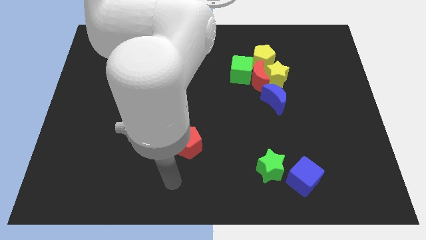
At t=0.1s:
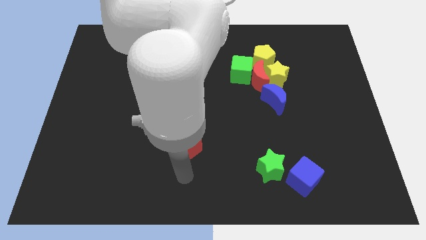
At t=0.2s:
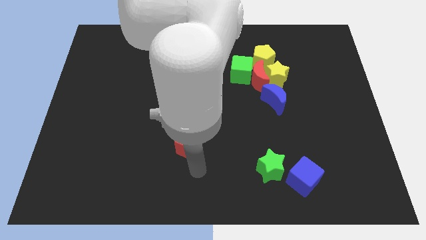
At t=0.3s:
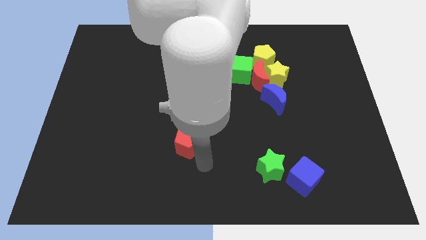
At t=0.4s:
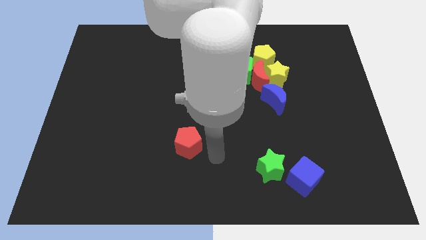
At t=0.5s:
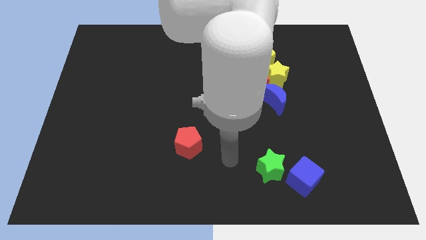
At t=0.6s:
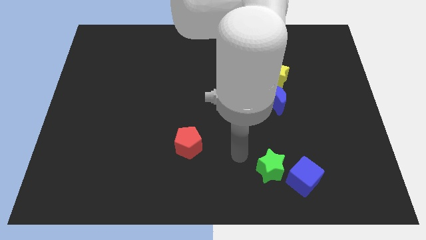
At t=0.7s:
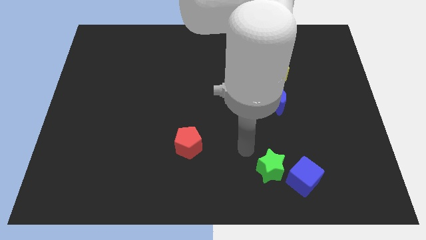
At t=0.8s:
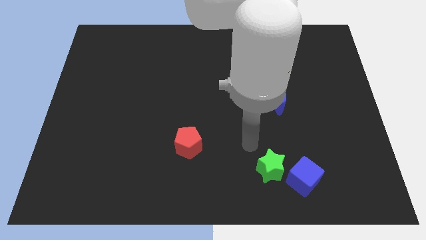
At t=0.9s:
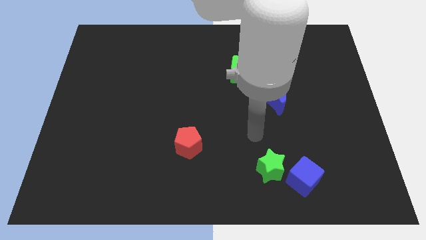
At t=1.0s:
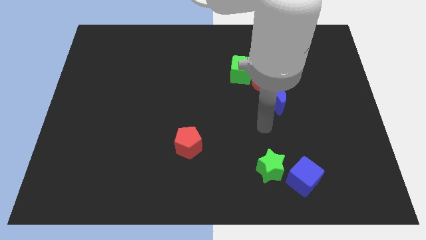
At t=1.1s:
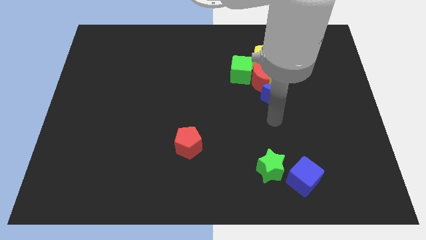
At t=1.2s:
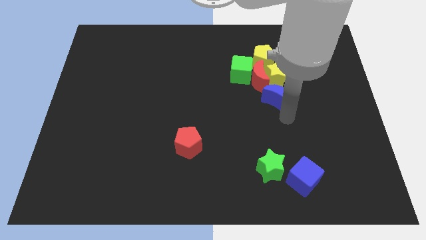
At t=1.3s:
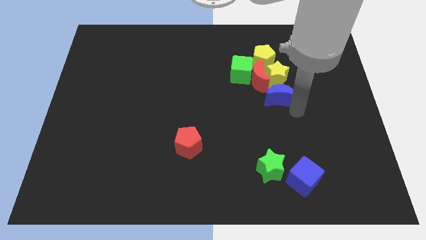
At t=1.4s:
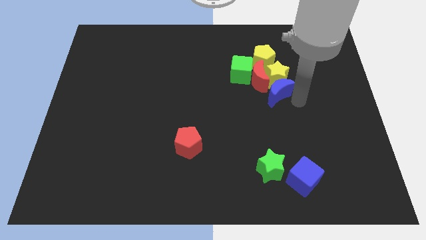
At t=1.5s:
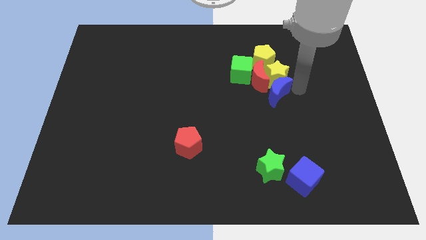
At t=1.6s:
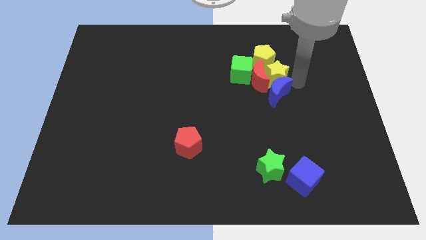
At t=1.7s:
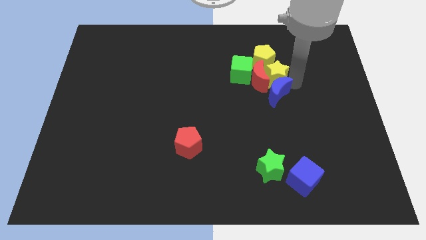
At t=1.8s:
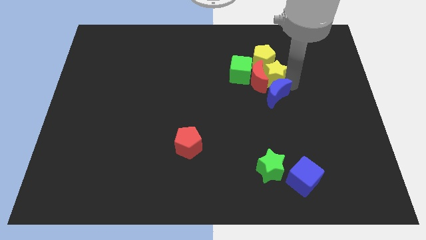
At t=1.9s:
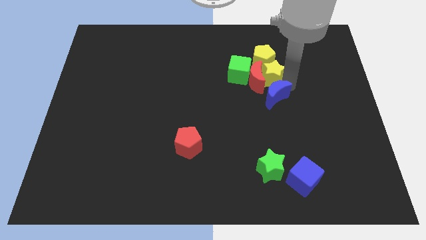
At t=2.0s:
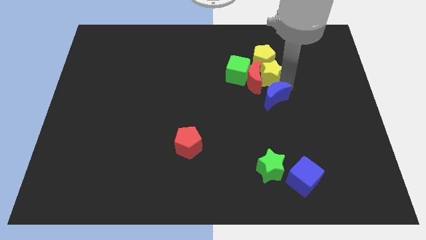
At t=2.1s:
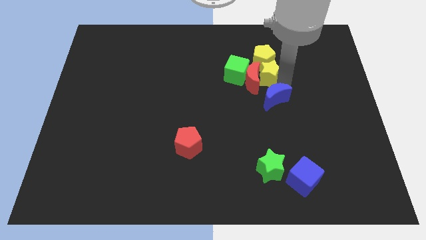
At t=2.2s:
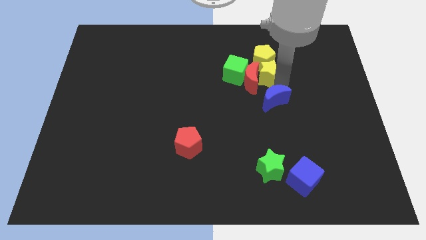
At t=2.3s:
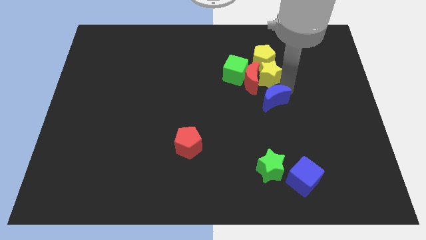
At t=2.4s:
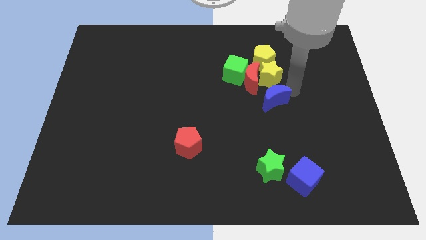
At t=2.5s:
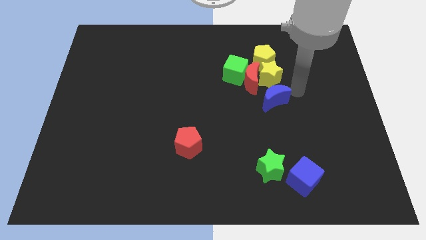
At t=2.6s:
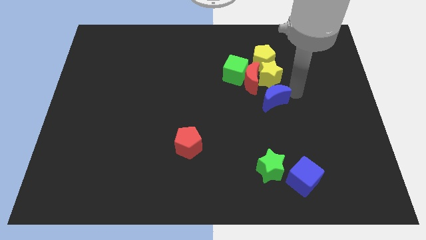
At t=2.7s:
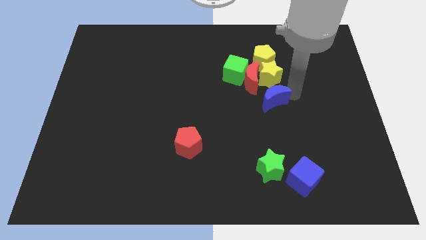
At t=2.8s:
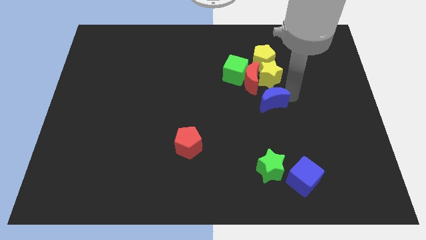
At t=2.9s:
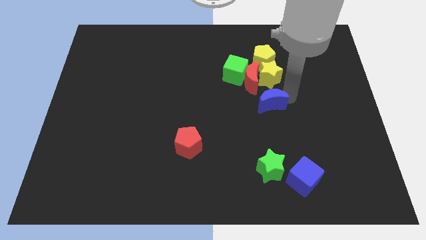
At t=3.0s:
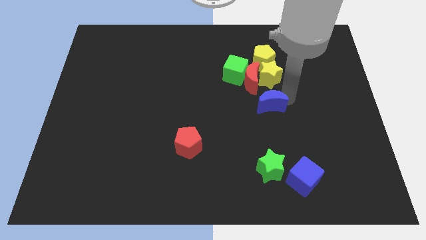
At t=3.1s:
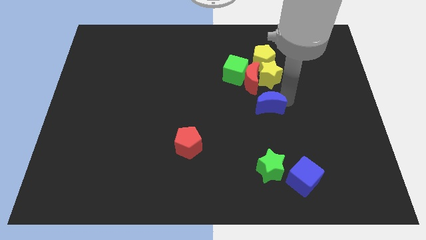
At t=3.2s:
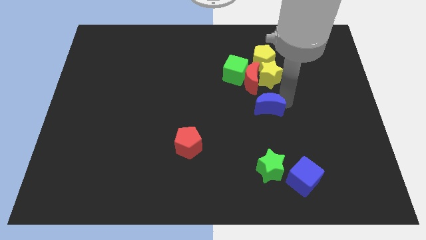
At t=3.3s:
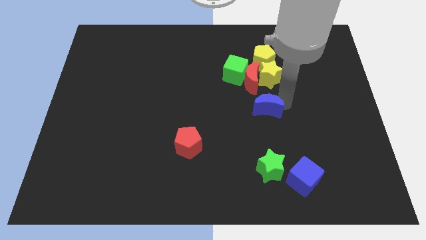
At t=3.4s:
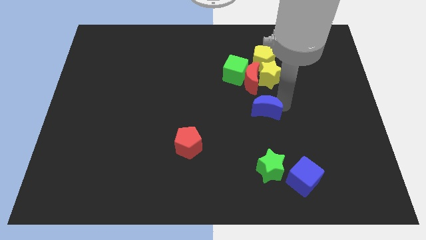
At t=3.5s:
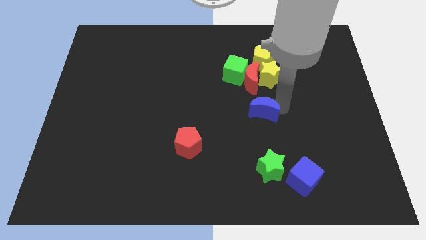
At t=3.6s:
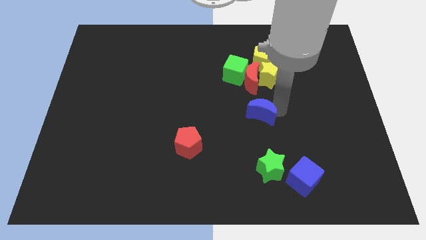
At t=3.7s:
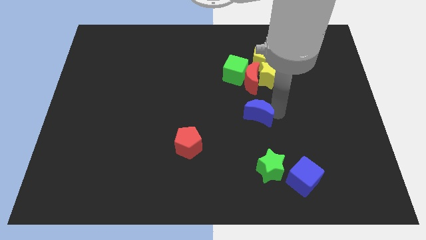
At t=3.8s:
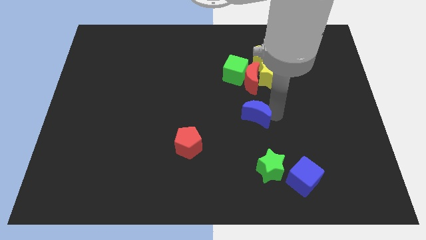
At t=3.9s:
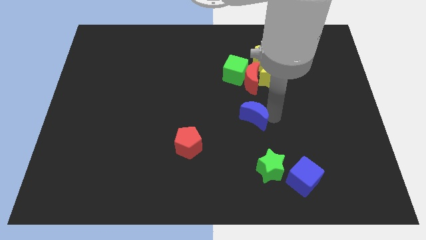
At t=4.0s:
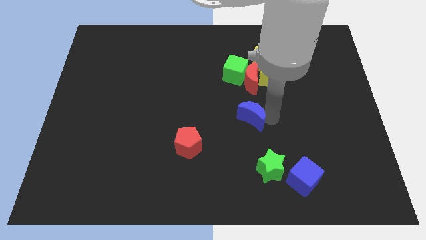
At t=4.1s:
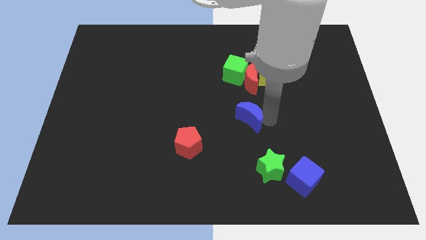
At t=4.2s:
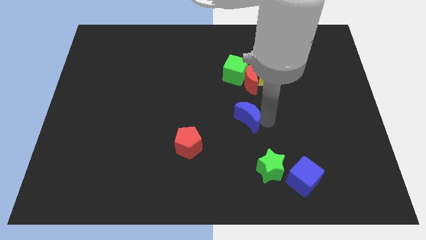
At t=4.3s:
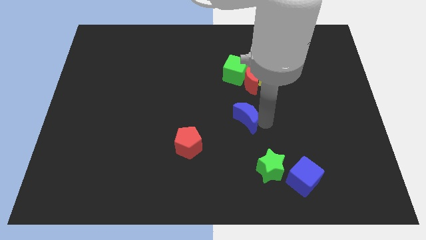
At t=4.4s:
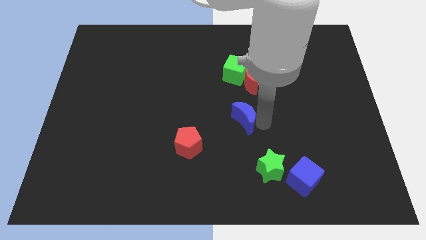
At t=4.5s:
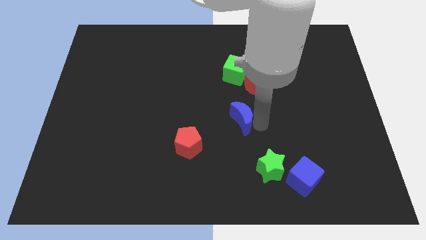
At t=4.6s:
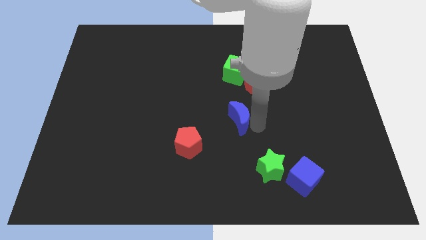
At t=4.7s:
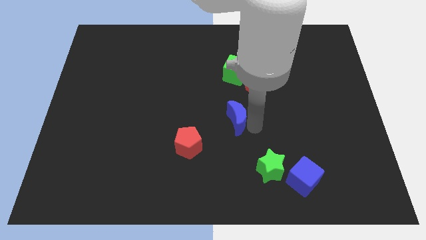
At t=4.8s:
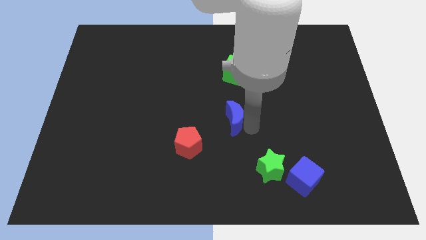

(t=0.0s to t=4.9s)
slide the blue moon to the top right side of the red pentagon

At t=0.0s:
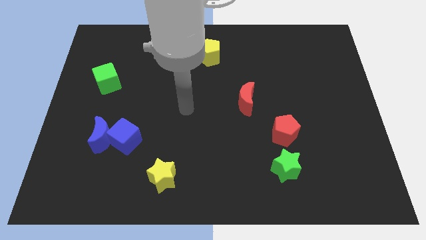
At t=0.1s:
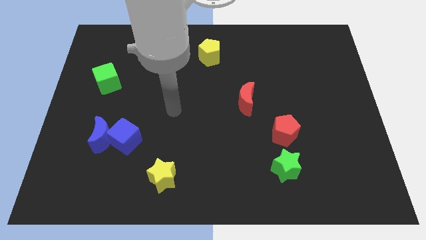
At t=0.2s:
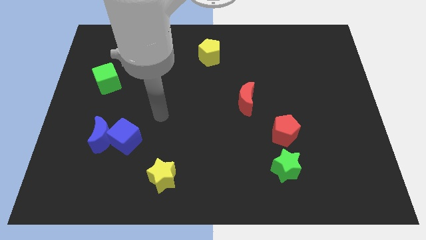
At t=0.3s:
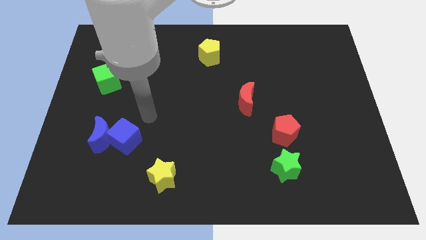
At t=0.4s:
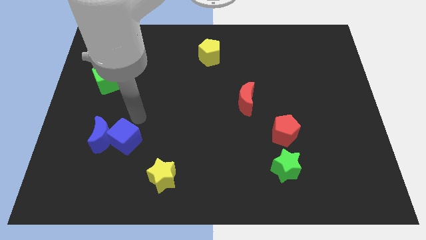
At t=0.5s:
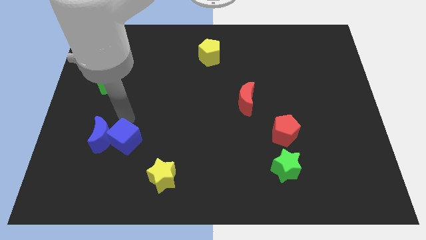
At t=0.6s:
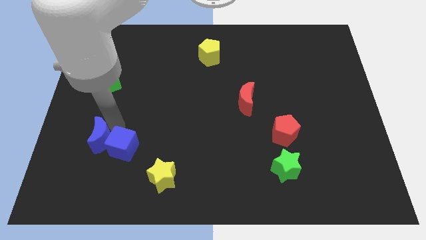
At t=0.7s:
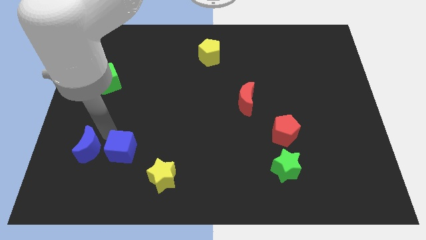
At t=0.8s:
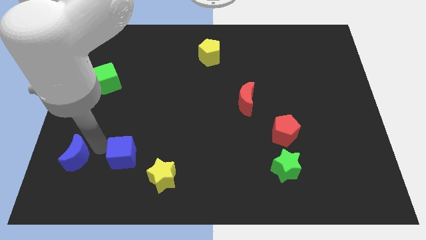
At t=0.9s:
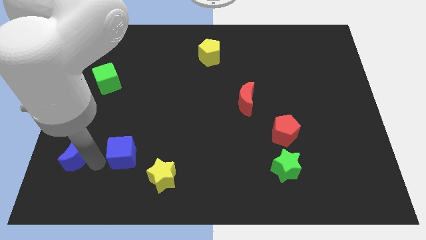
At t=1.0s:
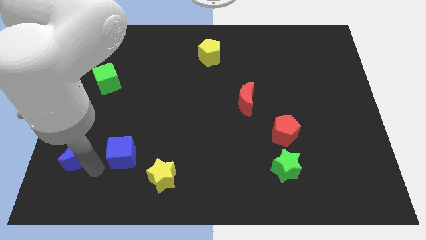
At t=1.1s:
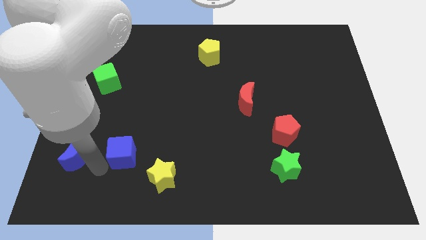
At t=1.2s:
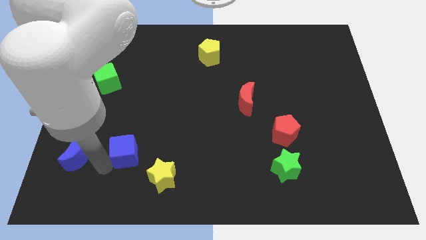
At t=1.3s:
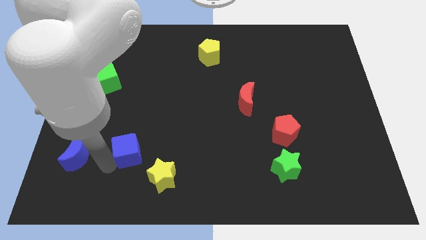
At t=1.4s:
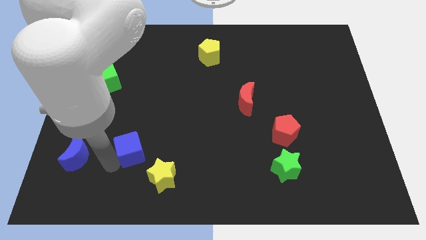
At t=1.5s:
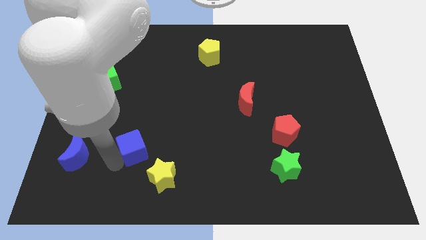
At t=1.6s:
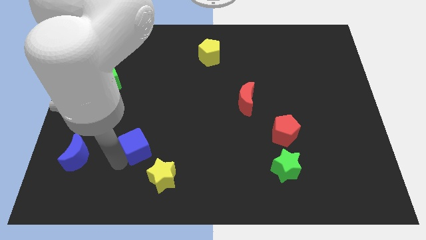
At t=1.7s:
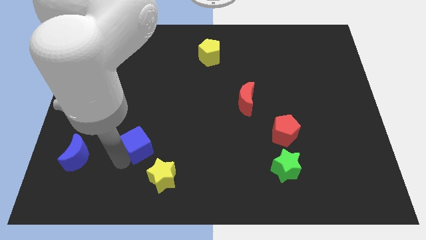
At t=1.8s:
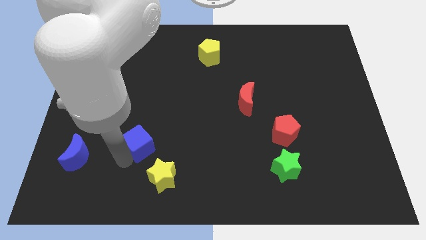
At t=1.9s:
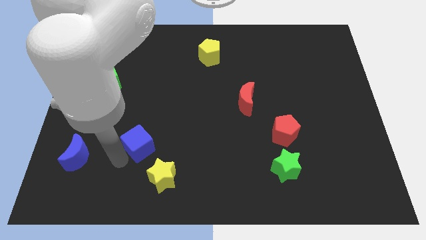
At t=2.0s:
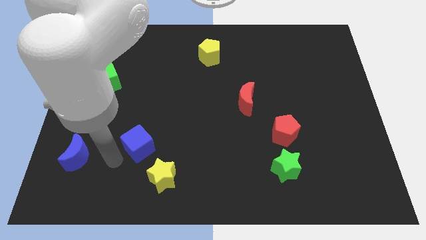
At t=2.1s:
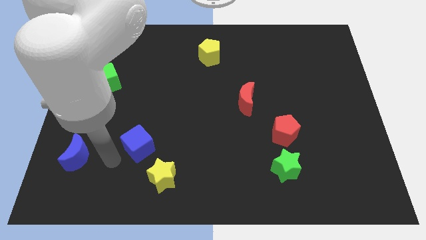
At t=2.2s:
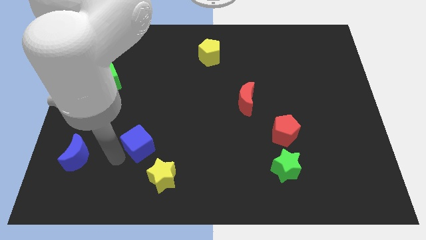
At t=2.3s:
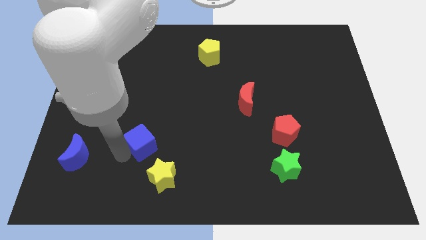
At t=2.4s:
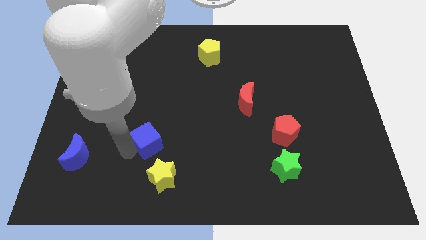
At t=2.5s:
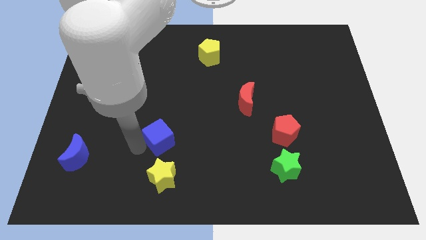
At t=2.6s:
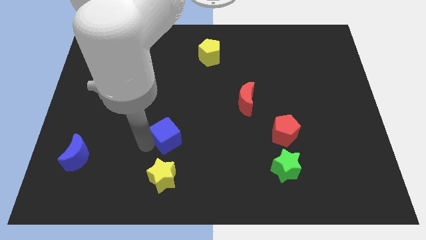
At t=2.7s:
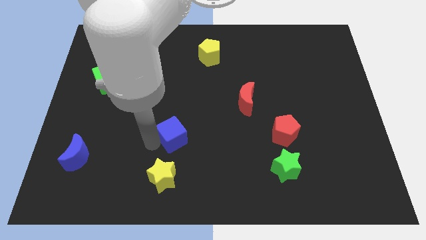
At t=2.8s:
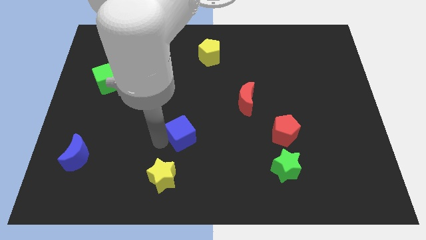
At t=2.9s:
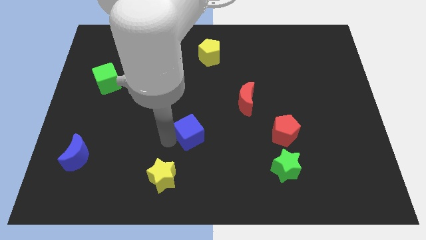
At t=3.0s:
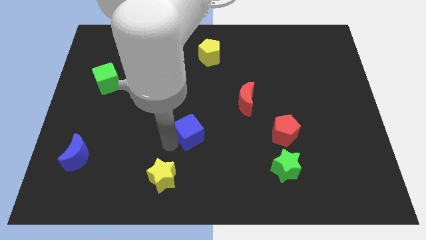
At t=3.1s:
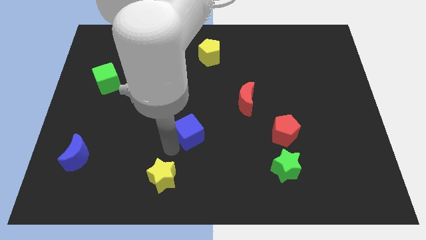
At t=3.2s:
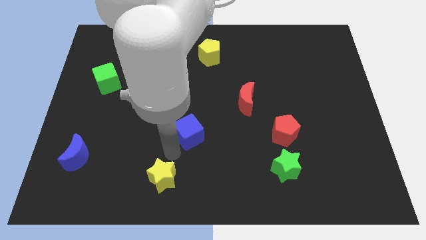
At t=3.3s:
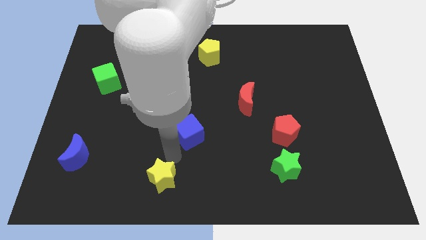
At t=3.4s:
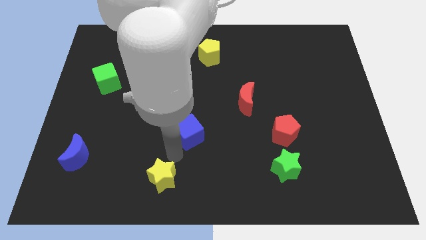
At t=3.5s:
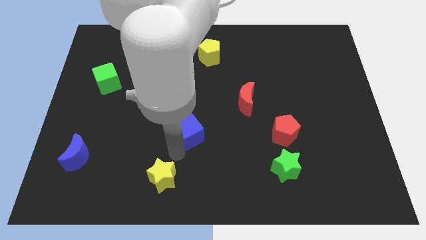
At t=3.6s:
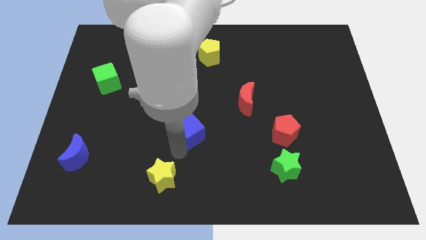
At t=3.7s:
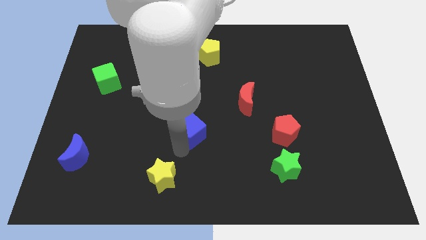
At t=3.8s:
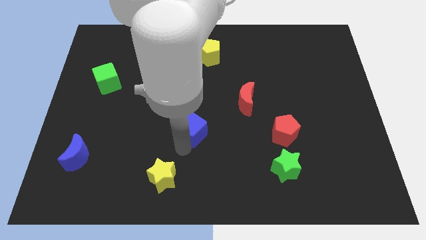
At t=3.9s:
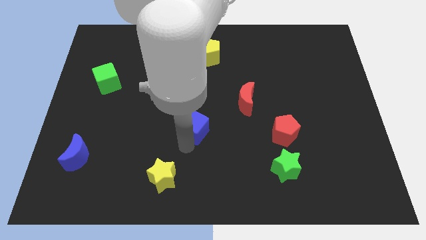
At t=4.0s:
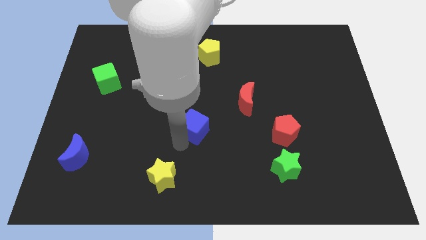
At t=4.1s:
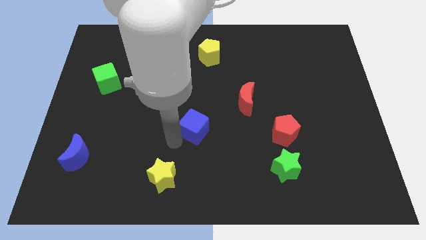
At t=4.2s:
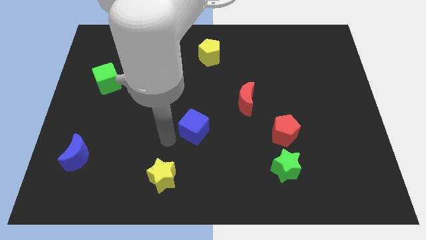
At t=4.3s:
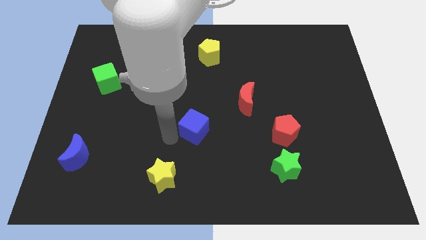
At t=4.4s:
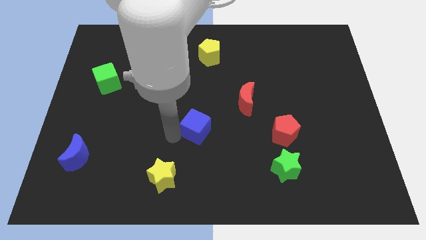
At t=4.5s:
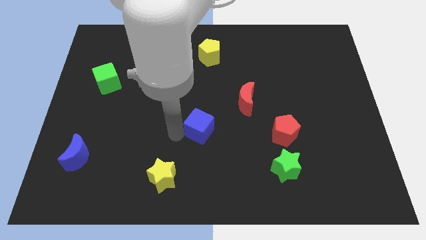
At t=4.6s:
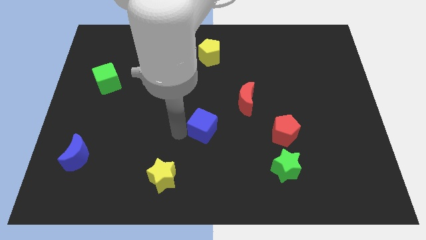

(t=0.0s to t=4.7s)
put the blue cube diagonally down and to the left of the red moon
